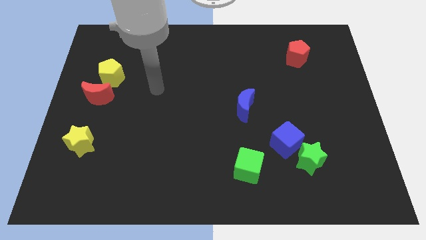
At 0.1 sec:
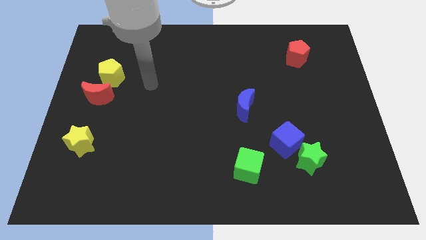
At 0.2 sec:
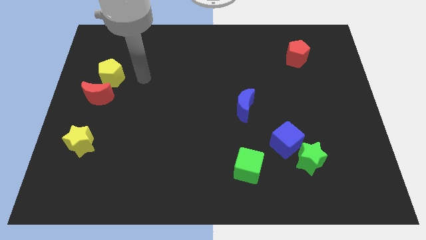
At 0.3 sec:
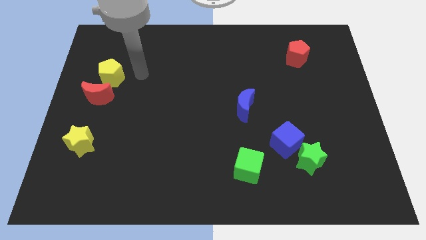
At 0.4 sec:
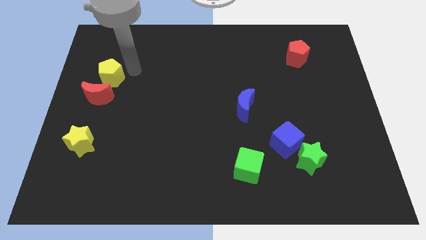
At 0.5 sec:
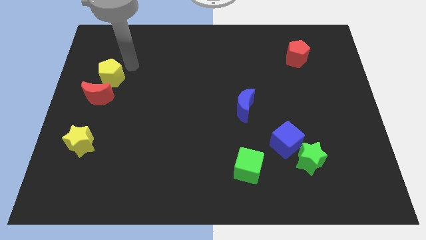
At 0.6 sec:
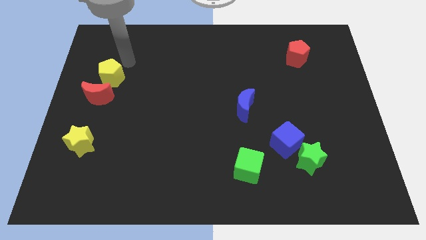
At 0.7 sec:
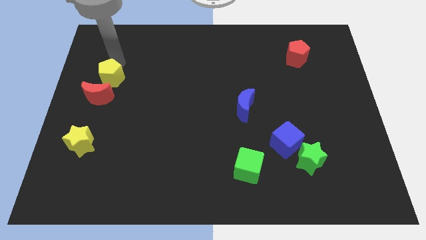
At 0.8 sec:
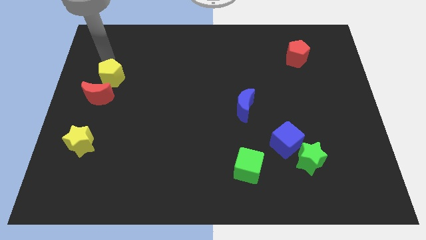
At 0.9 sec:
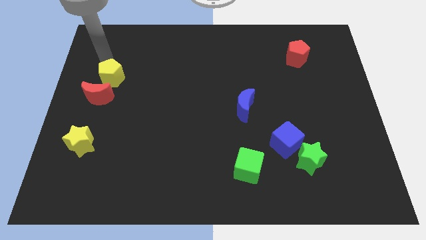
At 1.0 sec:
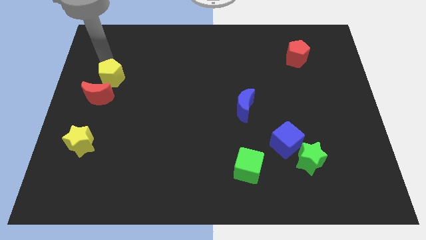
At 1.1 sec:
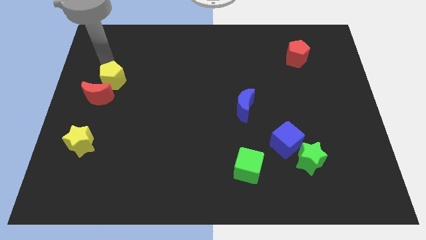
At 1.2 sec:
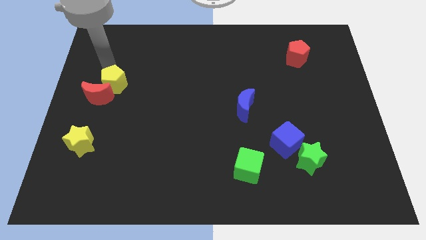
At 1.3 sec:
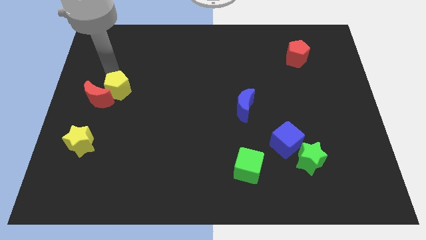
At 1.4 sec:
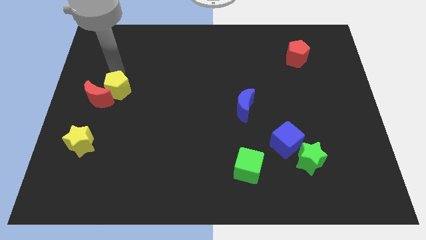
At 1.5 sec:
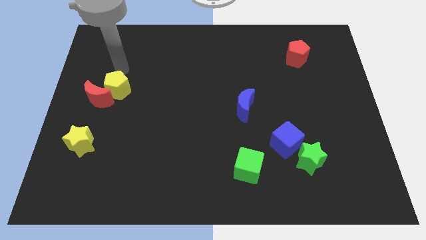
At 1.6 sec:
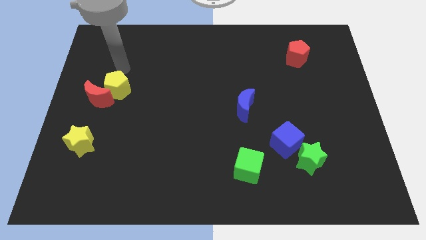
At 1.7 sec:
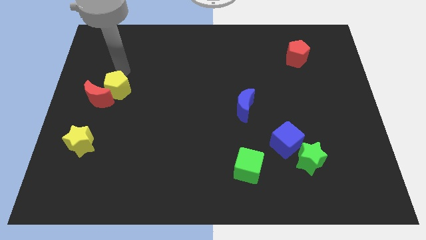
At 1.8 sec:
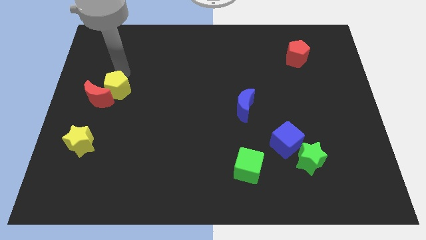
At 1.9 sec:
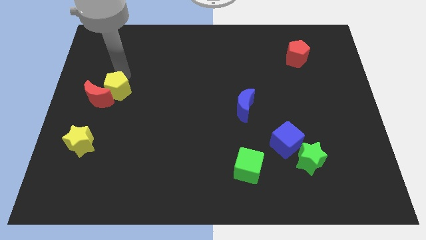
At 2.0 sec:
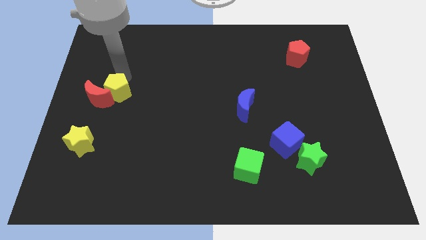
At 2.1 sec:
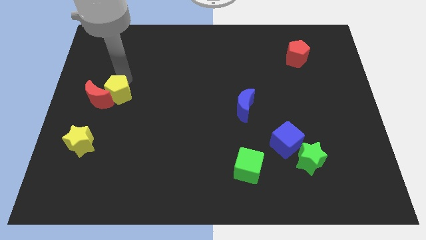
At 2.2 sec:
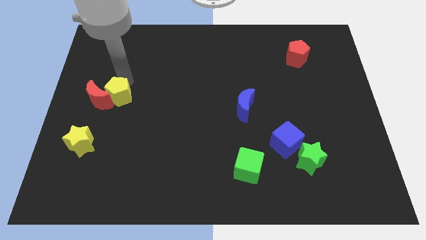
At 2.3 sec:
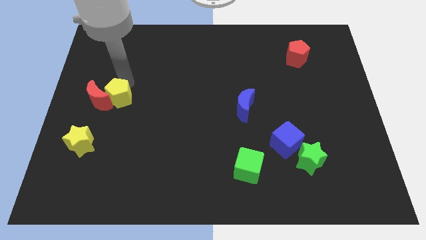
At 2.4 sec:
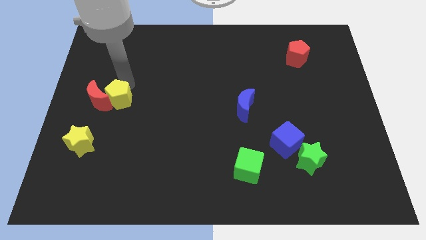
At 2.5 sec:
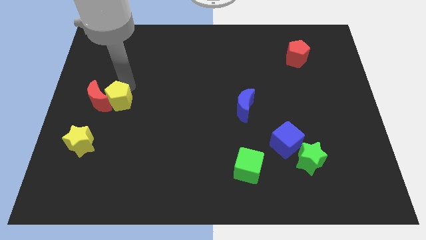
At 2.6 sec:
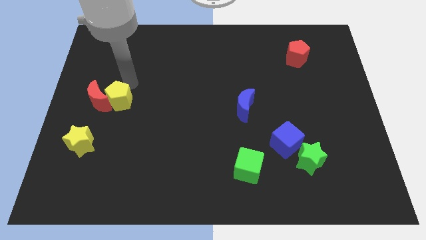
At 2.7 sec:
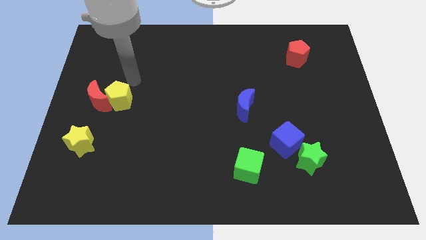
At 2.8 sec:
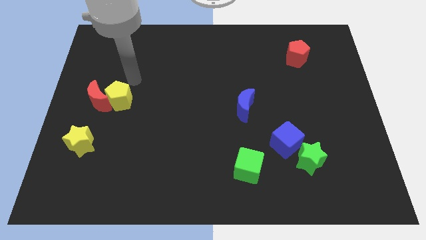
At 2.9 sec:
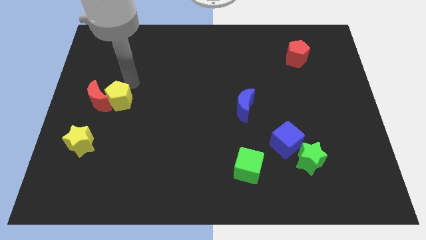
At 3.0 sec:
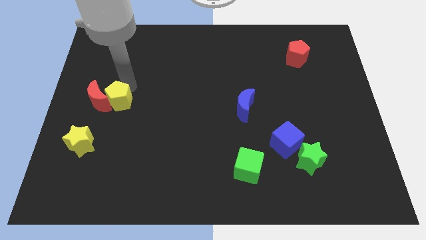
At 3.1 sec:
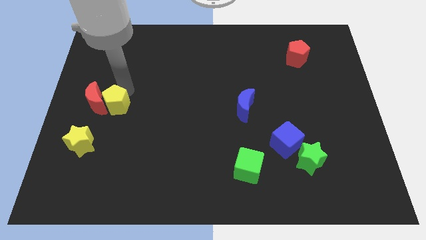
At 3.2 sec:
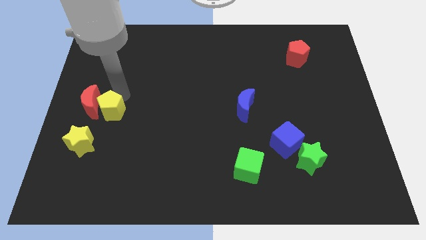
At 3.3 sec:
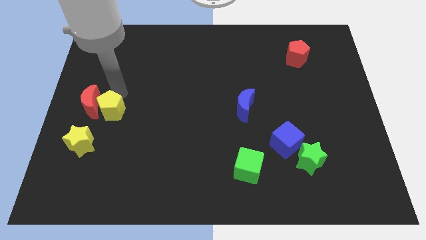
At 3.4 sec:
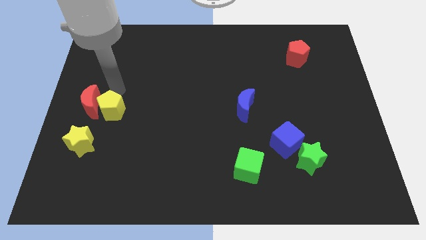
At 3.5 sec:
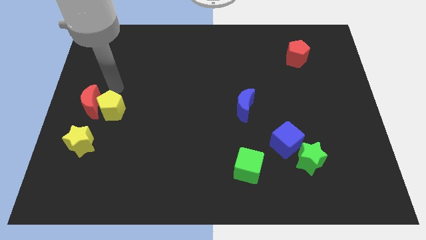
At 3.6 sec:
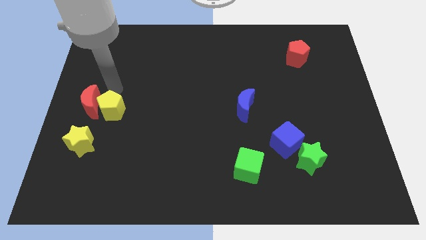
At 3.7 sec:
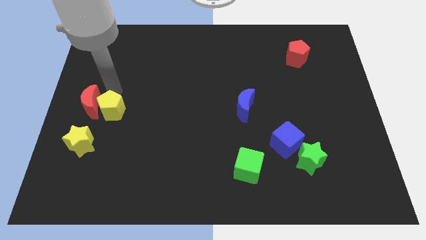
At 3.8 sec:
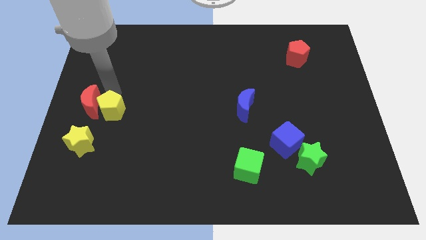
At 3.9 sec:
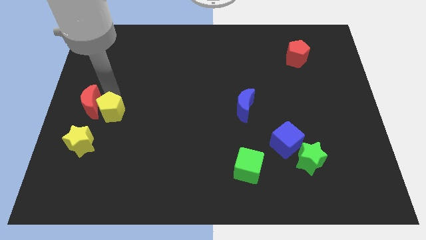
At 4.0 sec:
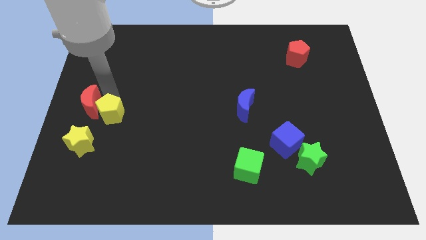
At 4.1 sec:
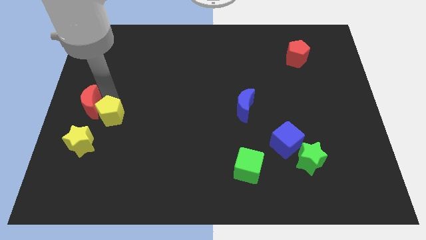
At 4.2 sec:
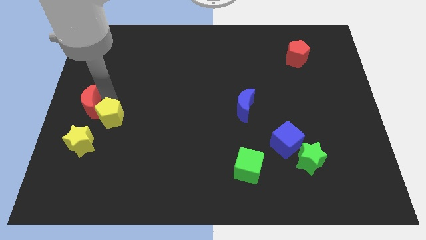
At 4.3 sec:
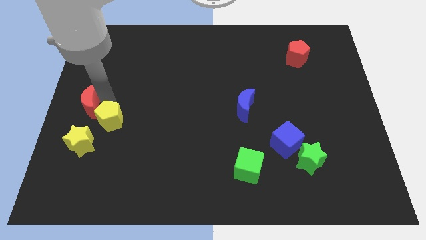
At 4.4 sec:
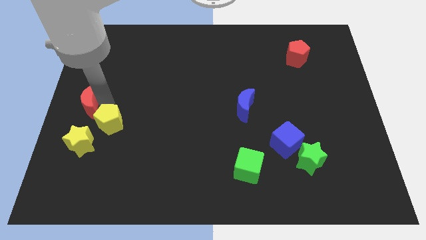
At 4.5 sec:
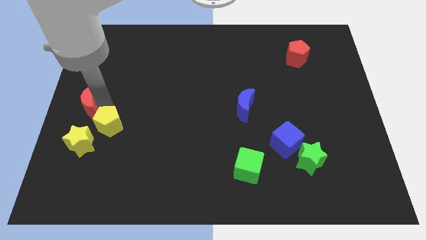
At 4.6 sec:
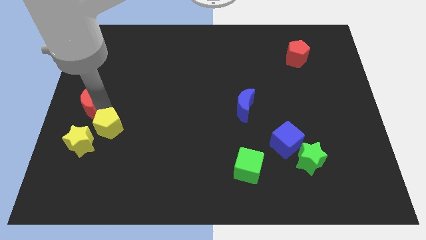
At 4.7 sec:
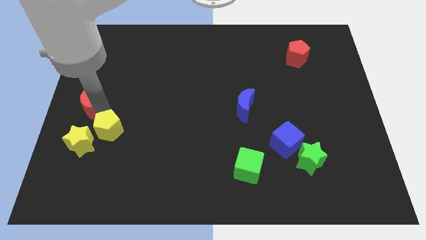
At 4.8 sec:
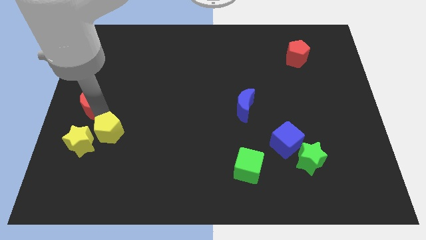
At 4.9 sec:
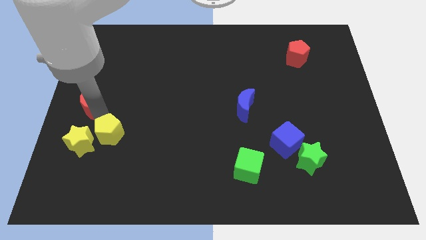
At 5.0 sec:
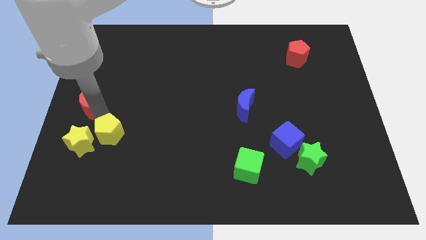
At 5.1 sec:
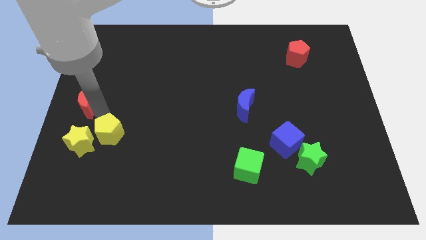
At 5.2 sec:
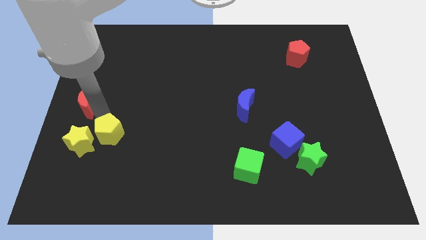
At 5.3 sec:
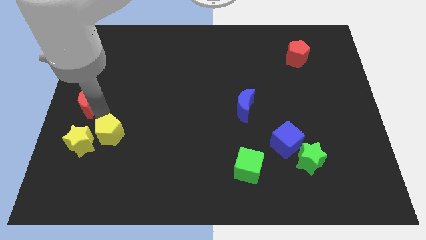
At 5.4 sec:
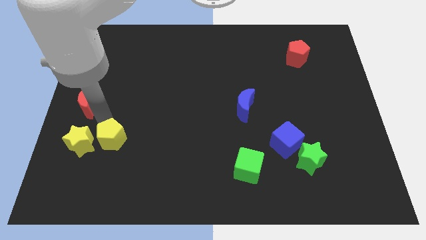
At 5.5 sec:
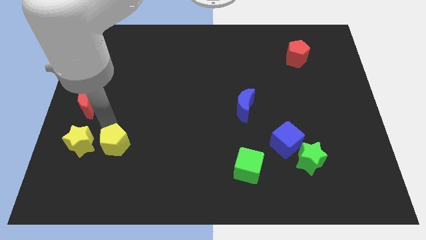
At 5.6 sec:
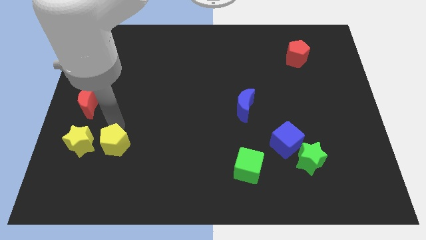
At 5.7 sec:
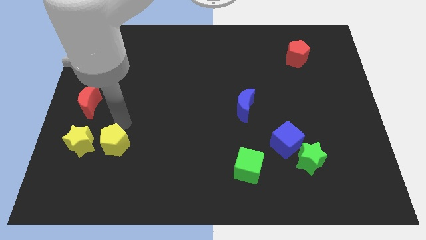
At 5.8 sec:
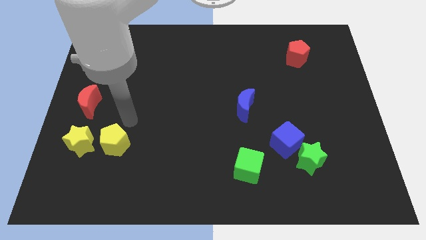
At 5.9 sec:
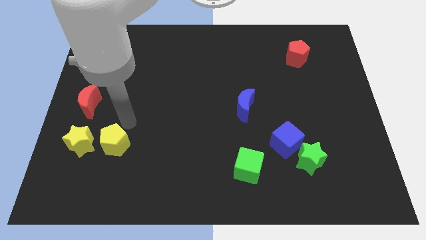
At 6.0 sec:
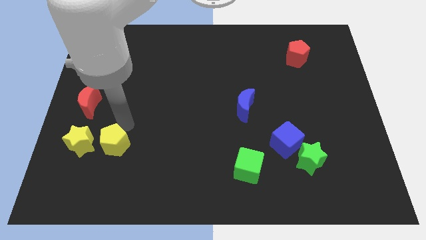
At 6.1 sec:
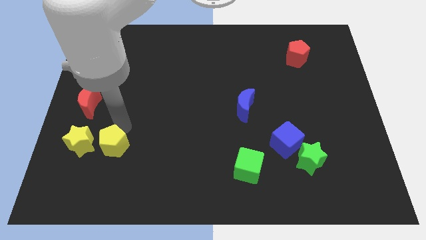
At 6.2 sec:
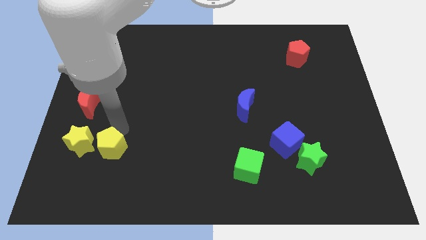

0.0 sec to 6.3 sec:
move the yellow pentagon diagonally down and to the right of the yellow star

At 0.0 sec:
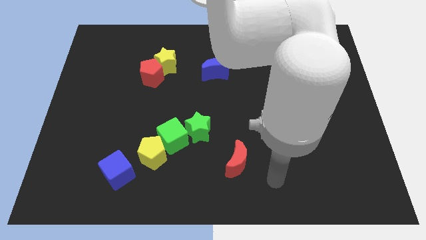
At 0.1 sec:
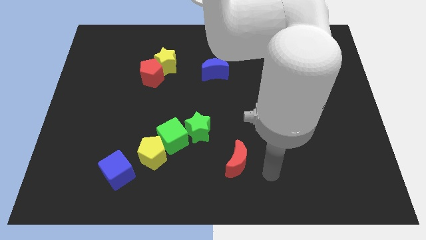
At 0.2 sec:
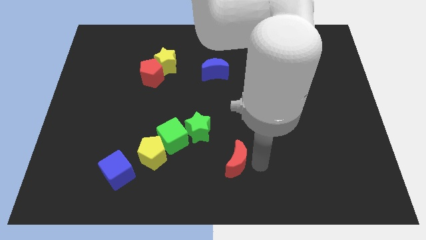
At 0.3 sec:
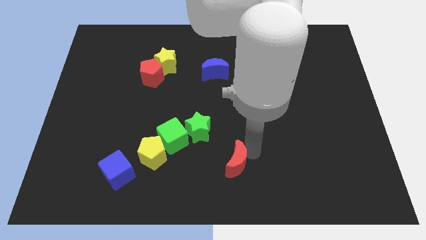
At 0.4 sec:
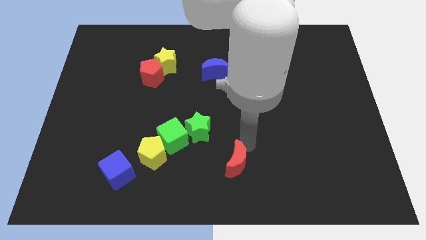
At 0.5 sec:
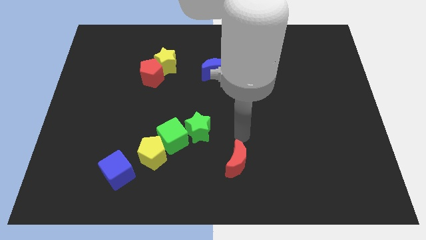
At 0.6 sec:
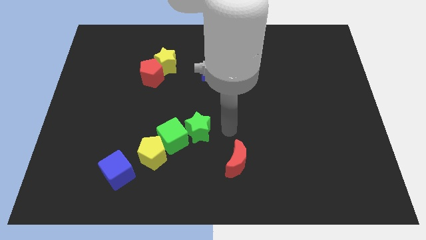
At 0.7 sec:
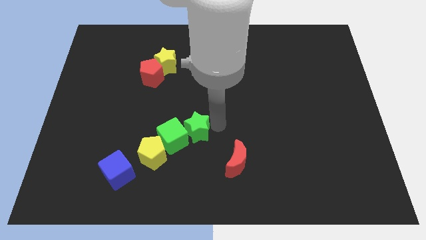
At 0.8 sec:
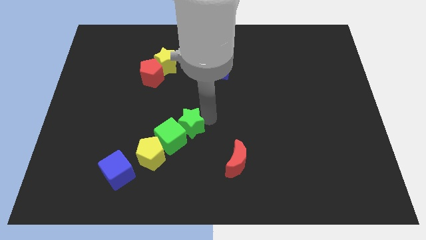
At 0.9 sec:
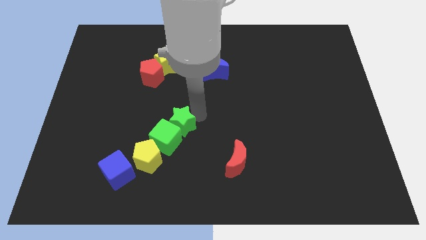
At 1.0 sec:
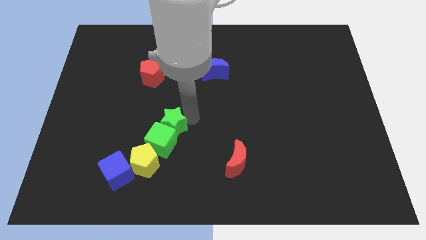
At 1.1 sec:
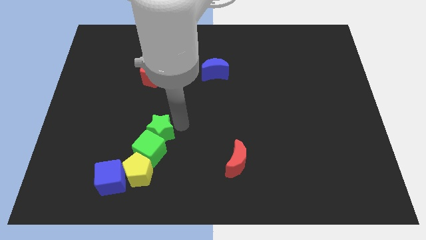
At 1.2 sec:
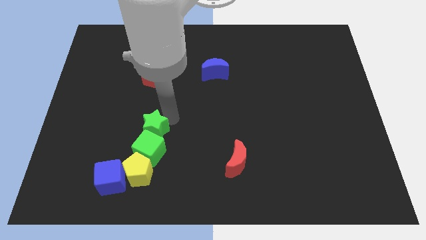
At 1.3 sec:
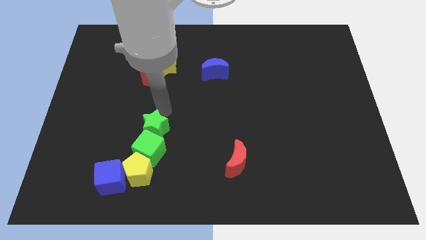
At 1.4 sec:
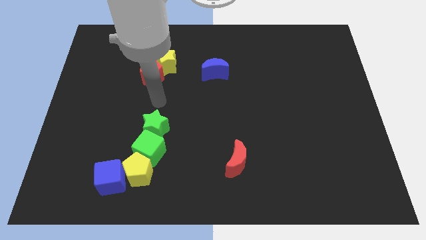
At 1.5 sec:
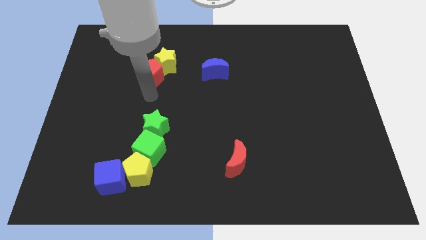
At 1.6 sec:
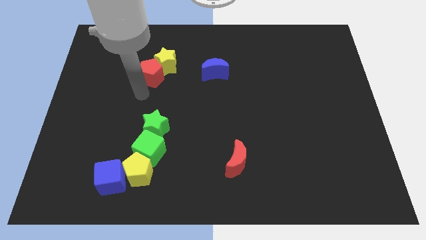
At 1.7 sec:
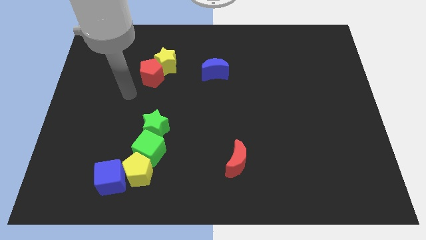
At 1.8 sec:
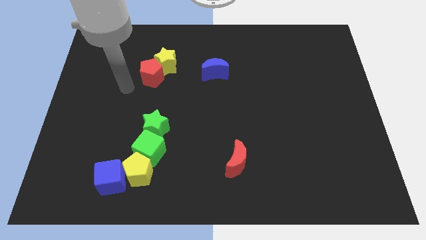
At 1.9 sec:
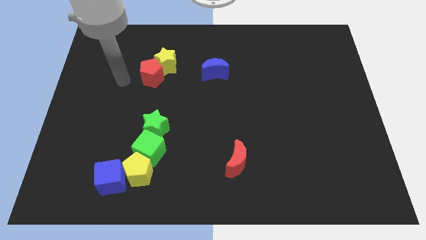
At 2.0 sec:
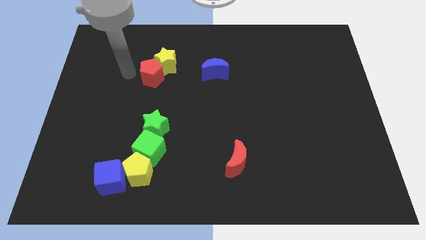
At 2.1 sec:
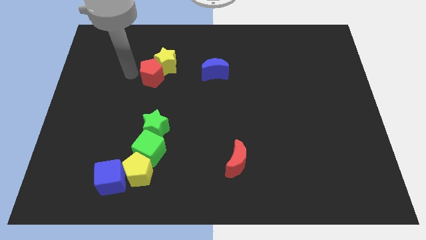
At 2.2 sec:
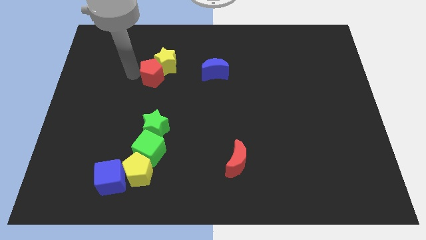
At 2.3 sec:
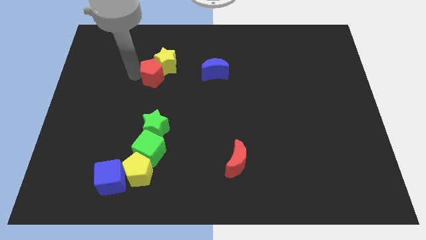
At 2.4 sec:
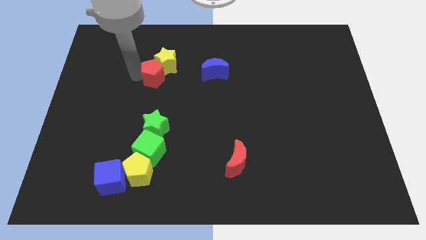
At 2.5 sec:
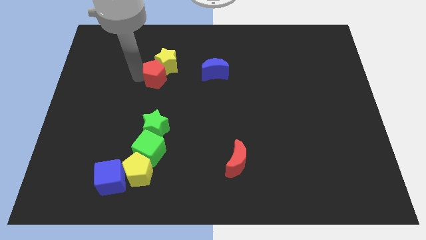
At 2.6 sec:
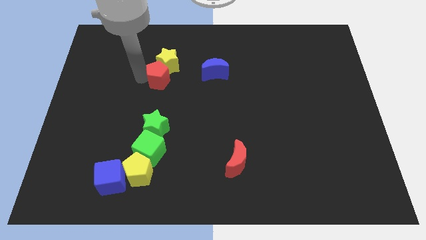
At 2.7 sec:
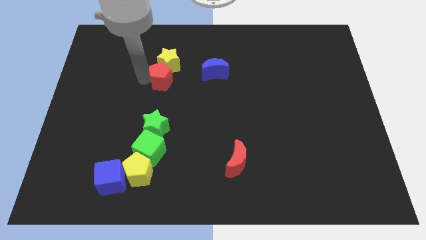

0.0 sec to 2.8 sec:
push the red pentagon to the bottom right of the yellow star
